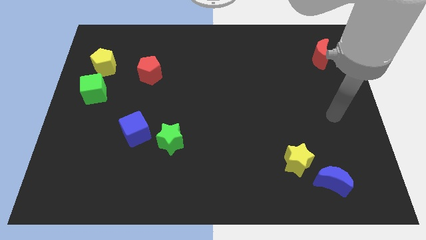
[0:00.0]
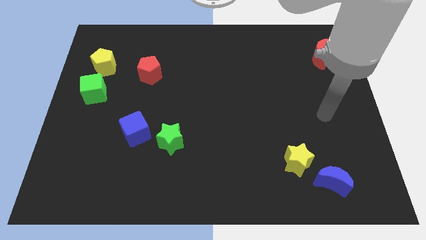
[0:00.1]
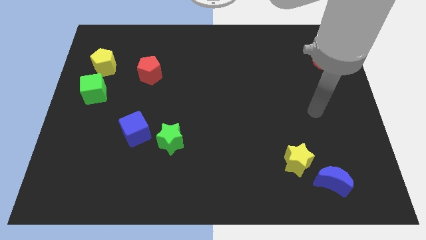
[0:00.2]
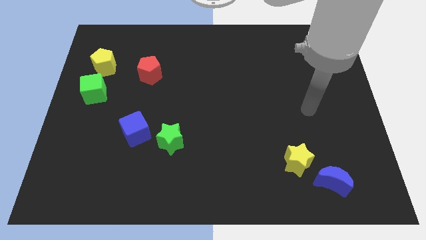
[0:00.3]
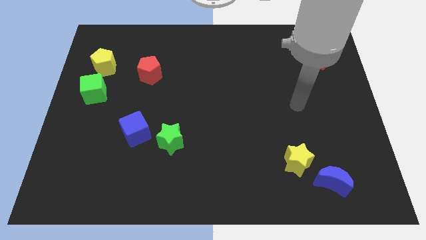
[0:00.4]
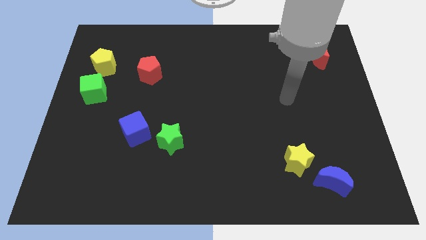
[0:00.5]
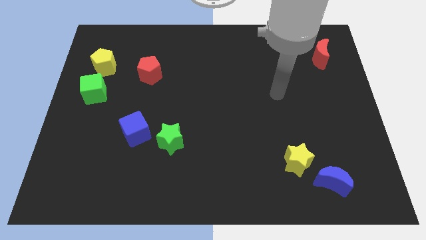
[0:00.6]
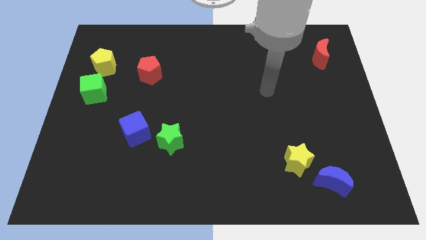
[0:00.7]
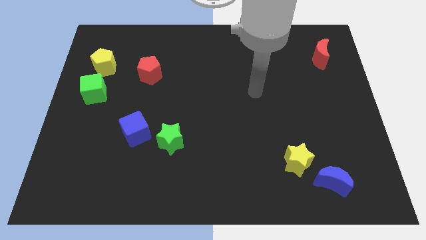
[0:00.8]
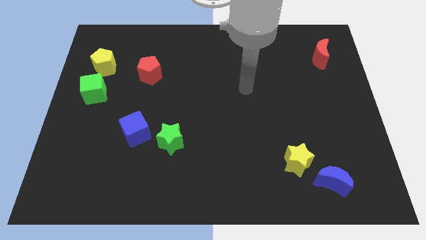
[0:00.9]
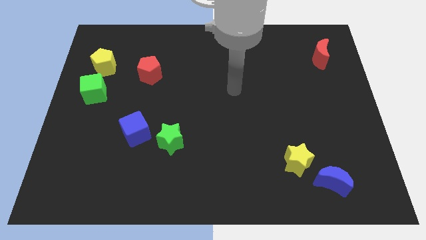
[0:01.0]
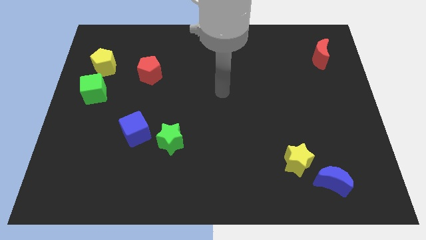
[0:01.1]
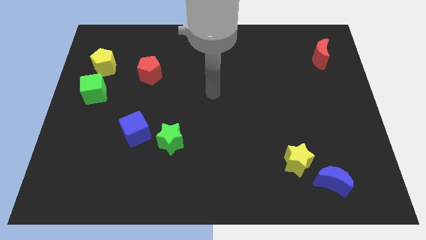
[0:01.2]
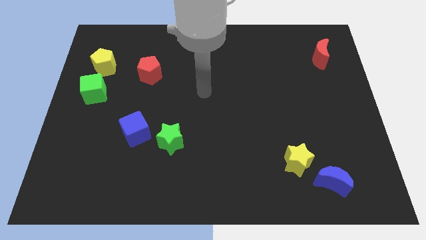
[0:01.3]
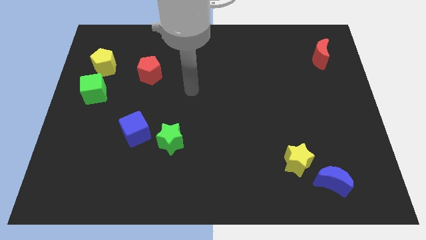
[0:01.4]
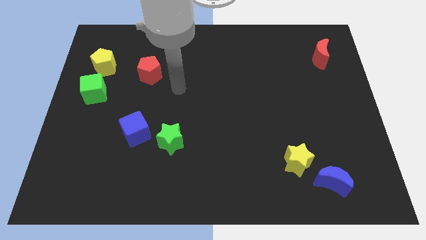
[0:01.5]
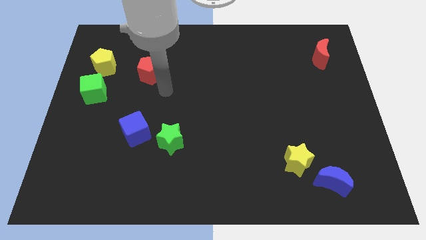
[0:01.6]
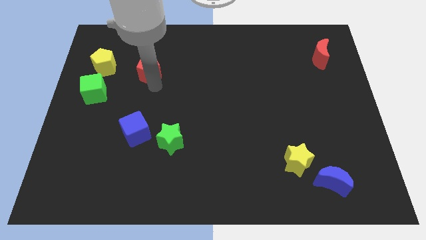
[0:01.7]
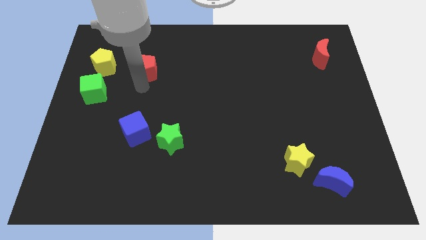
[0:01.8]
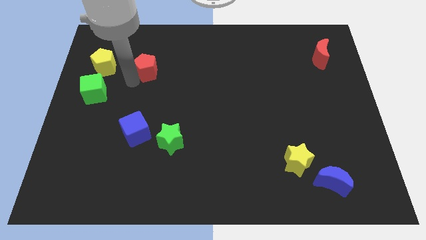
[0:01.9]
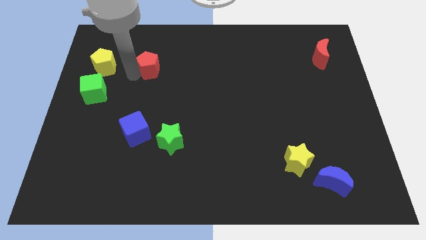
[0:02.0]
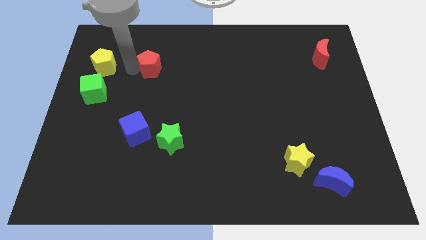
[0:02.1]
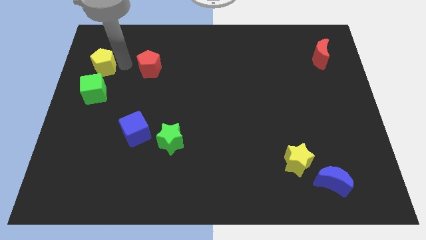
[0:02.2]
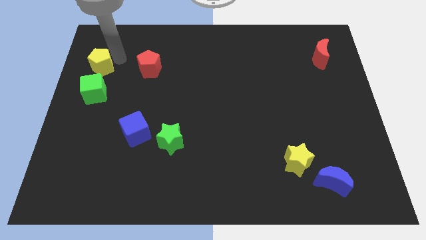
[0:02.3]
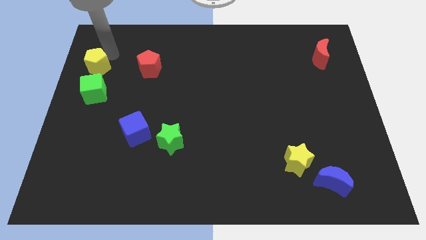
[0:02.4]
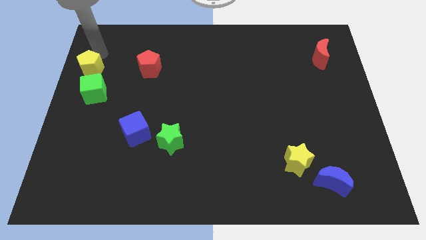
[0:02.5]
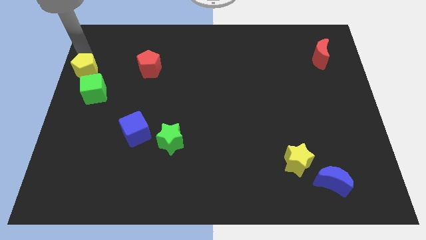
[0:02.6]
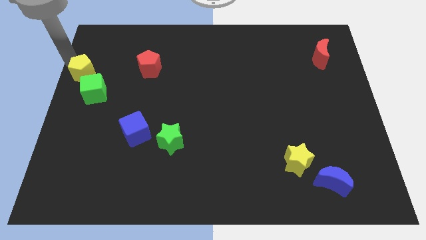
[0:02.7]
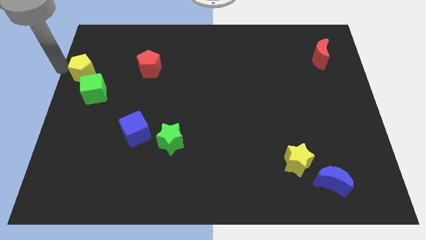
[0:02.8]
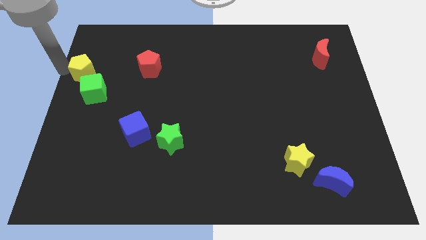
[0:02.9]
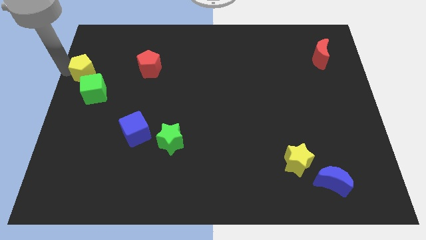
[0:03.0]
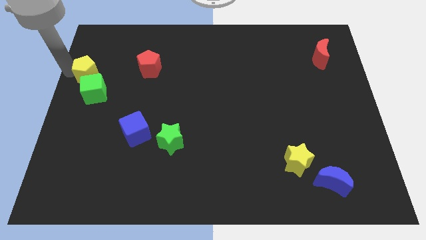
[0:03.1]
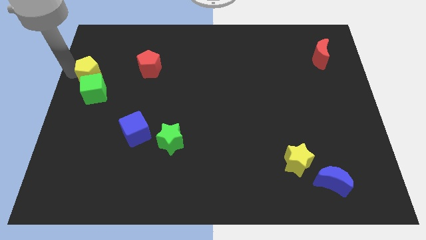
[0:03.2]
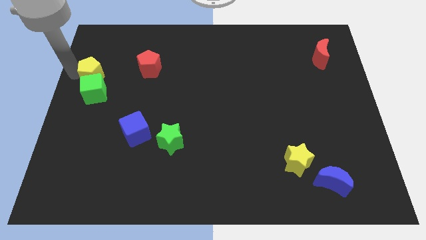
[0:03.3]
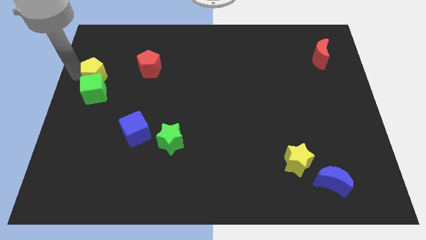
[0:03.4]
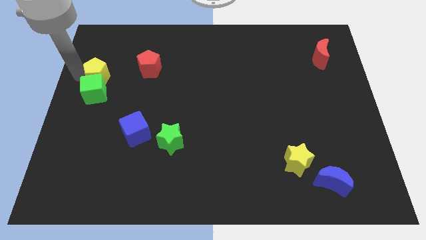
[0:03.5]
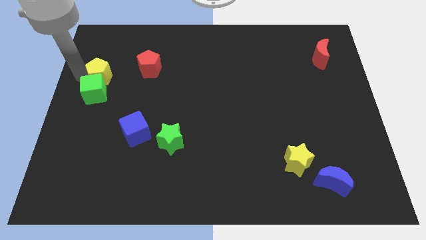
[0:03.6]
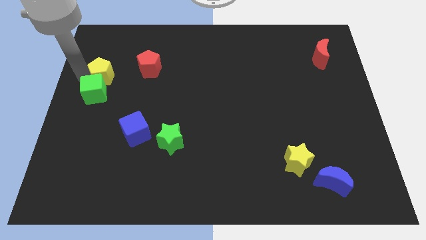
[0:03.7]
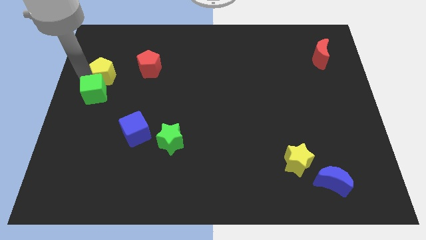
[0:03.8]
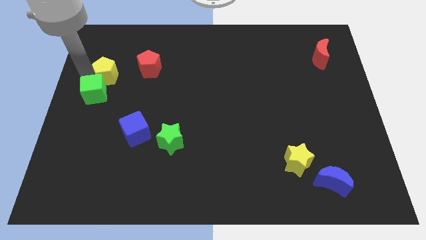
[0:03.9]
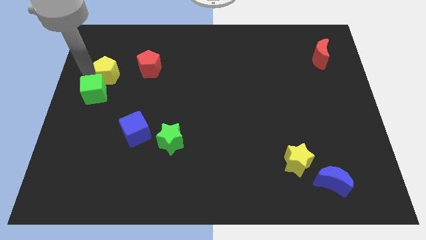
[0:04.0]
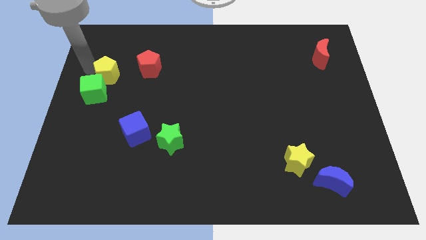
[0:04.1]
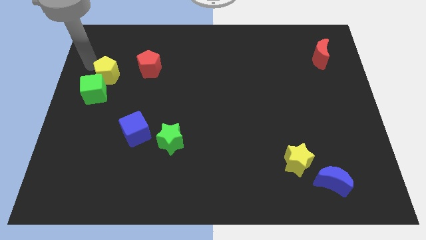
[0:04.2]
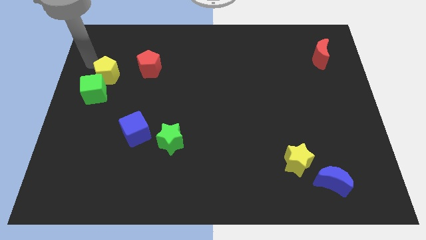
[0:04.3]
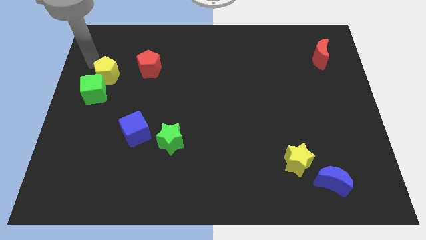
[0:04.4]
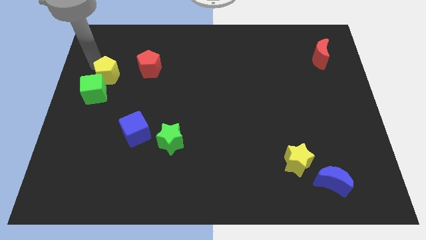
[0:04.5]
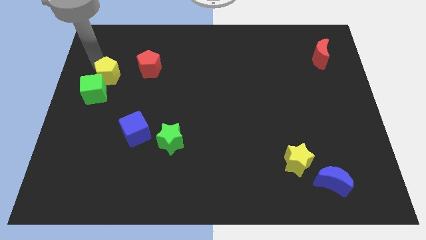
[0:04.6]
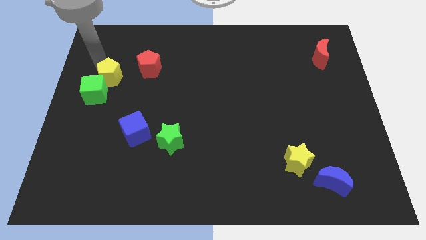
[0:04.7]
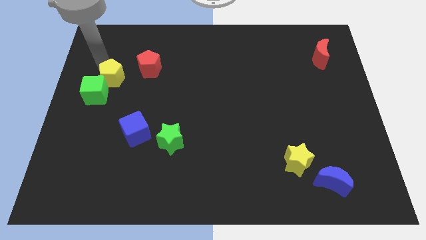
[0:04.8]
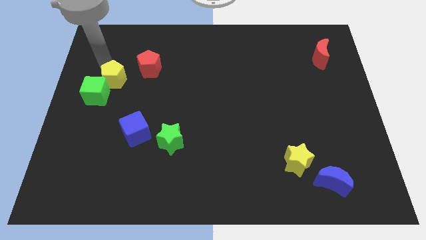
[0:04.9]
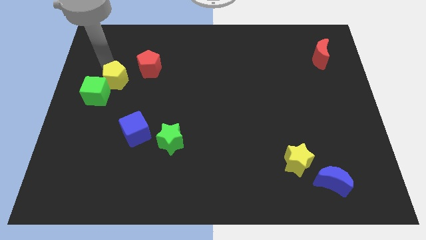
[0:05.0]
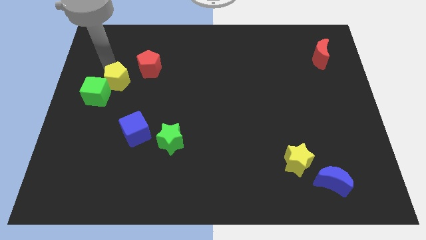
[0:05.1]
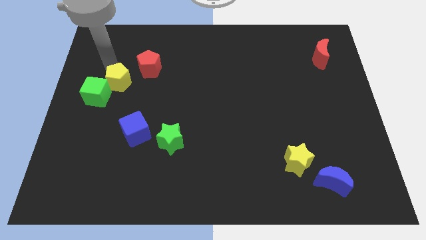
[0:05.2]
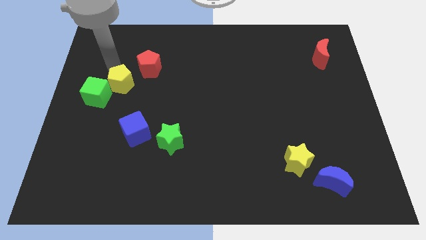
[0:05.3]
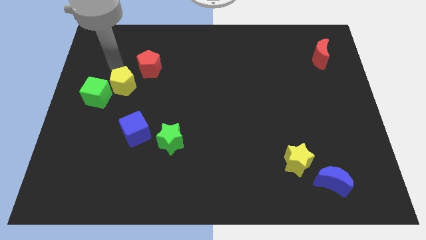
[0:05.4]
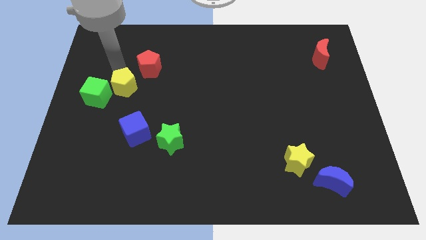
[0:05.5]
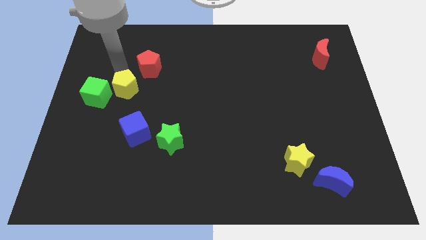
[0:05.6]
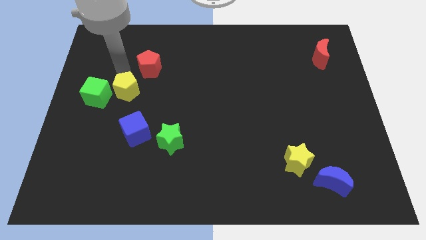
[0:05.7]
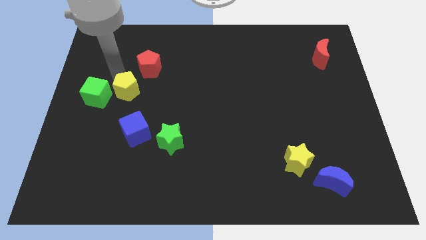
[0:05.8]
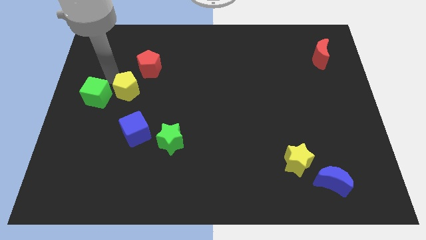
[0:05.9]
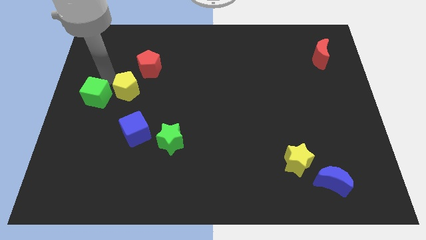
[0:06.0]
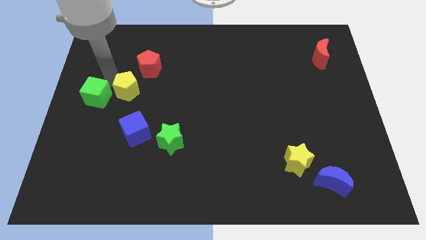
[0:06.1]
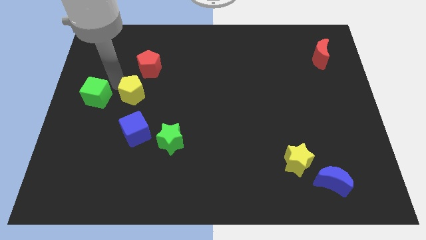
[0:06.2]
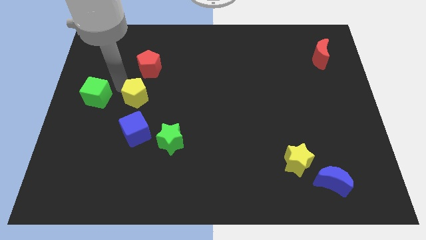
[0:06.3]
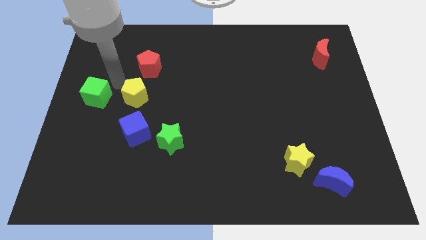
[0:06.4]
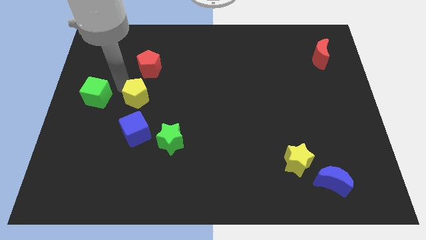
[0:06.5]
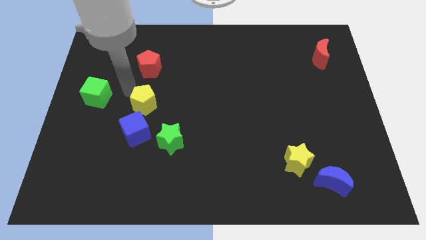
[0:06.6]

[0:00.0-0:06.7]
push the yellow pentagon to the top right of the blue cube

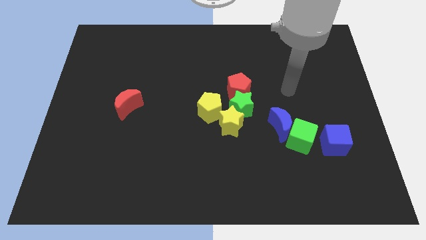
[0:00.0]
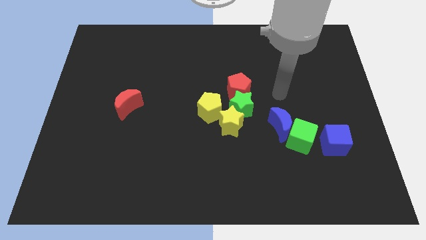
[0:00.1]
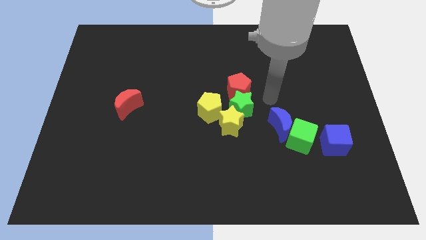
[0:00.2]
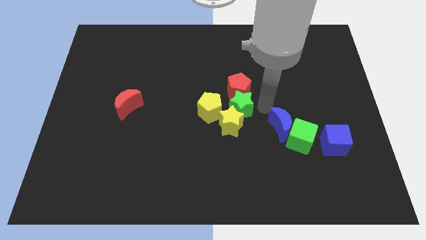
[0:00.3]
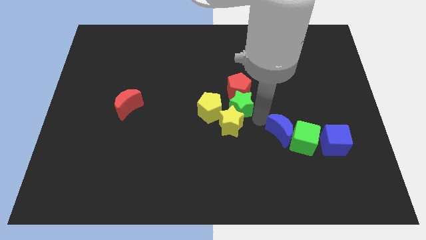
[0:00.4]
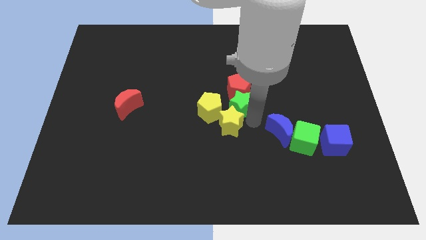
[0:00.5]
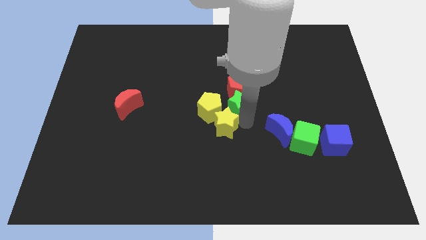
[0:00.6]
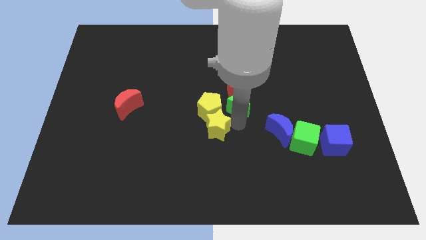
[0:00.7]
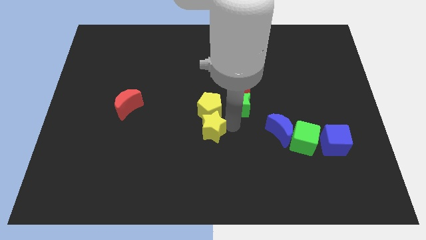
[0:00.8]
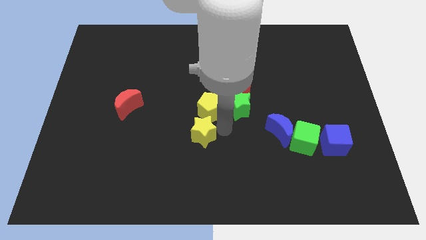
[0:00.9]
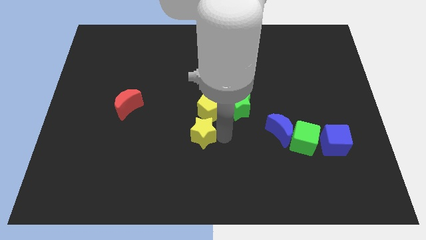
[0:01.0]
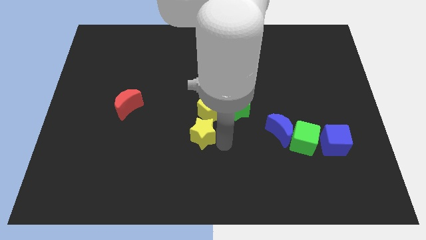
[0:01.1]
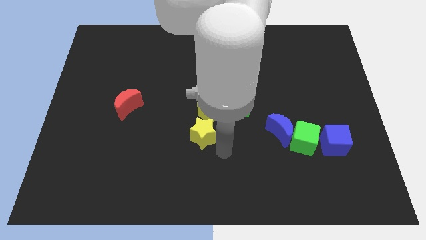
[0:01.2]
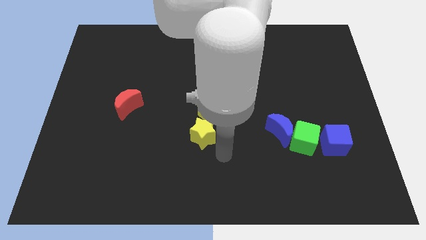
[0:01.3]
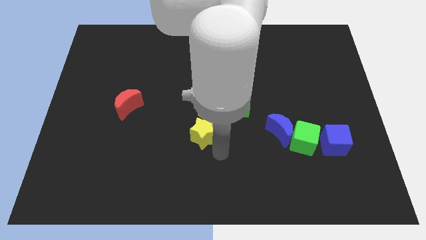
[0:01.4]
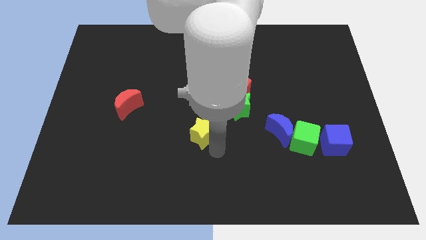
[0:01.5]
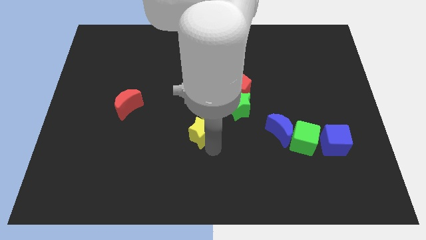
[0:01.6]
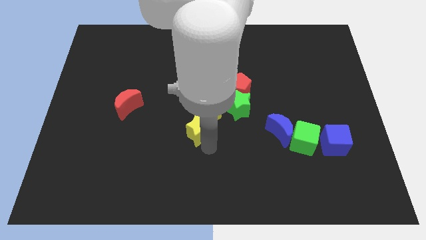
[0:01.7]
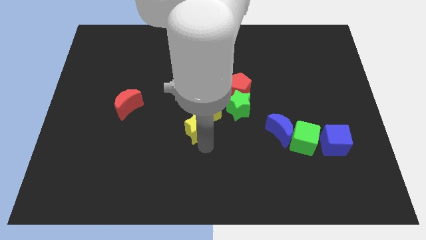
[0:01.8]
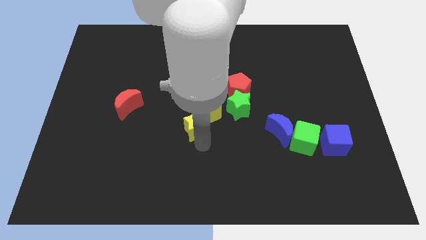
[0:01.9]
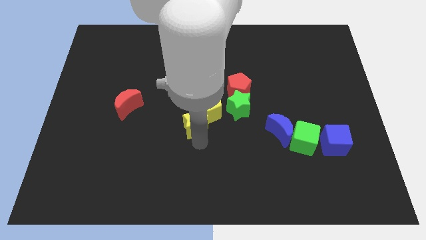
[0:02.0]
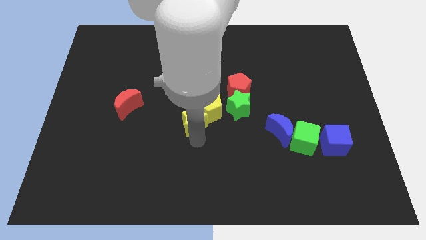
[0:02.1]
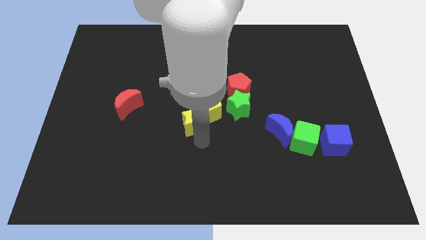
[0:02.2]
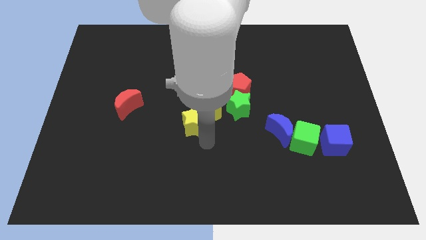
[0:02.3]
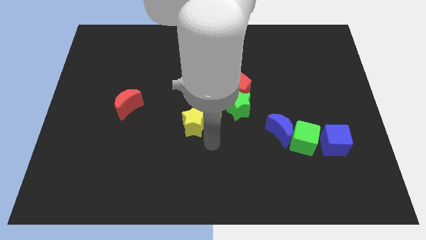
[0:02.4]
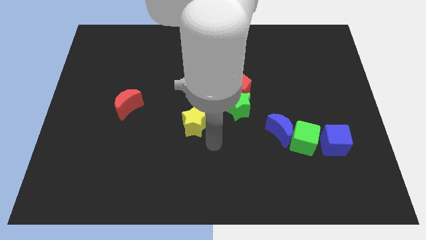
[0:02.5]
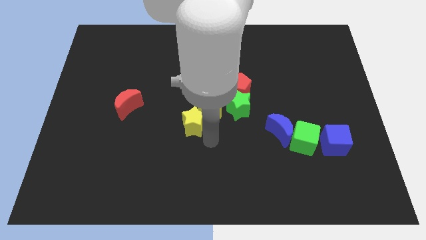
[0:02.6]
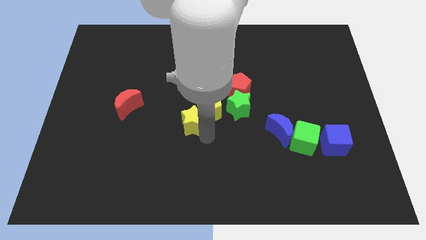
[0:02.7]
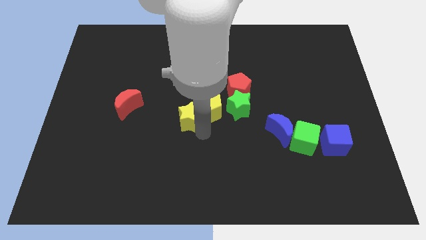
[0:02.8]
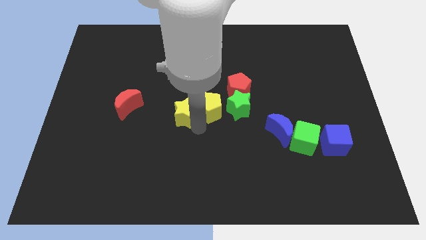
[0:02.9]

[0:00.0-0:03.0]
push the yellow star right of the red moon
